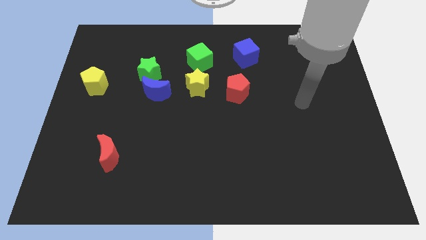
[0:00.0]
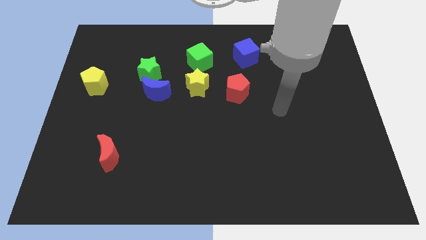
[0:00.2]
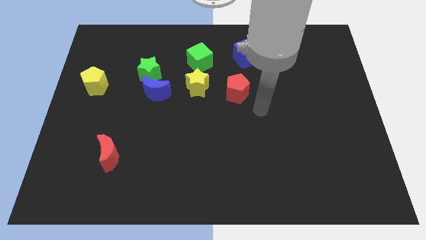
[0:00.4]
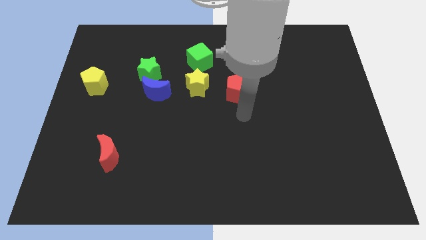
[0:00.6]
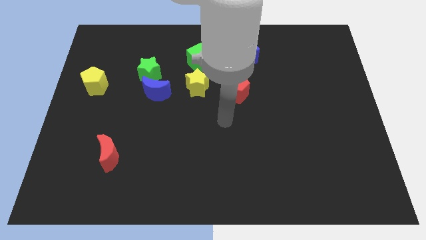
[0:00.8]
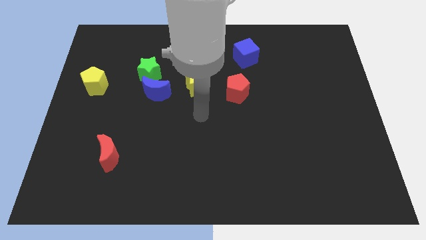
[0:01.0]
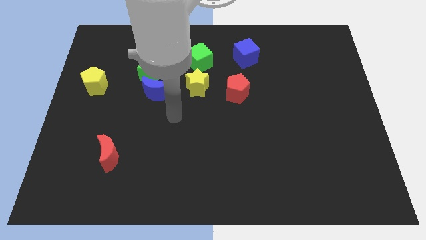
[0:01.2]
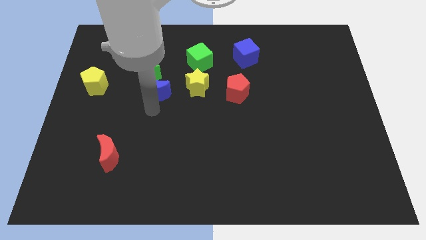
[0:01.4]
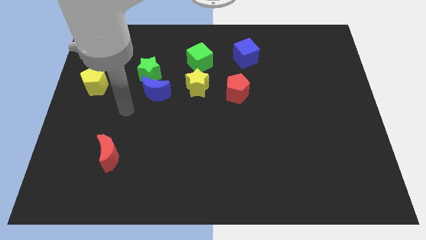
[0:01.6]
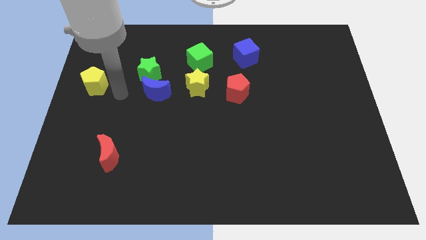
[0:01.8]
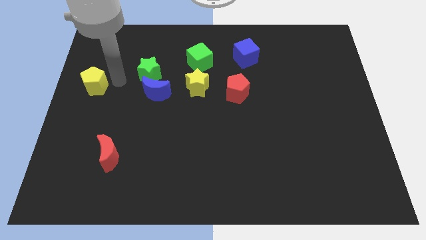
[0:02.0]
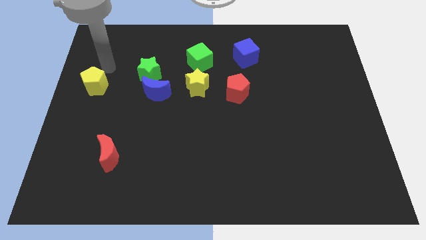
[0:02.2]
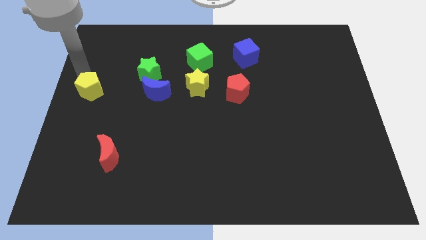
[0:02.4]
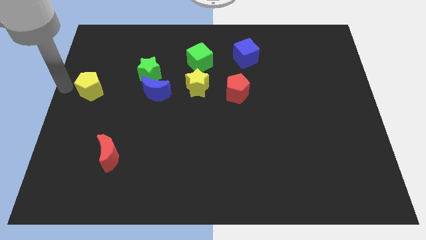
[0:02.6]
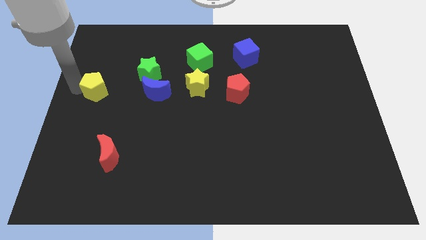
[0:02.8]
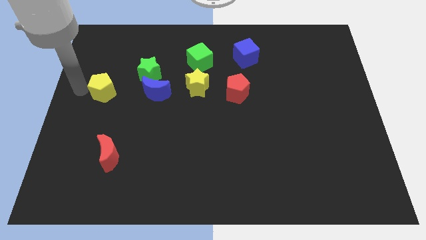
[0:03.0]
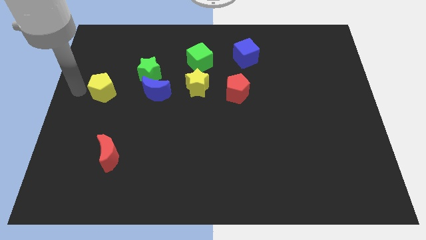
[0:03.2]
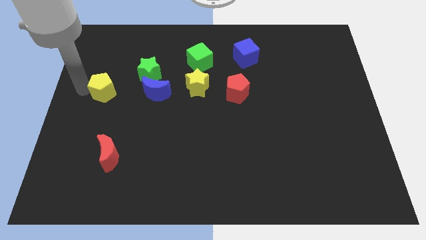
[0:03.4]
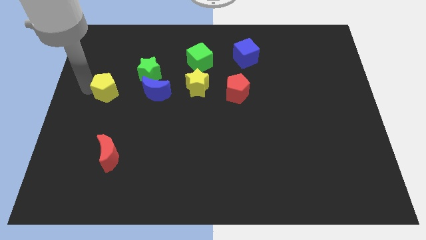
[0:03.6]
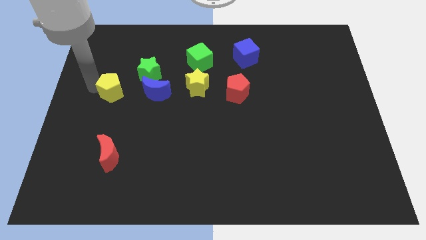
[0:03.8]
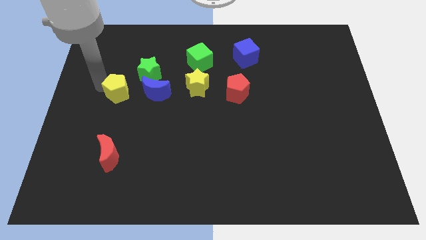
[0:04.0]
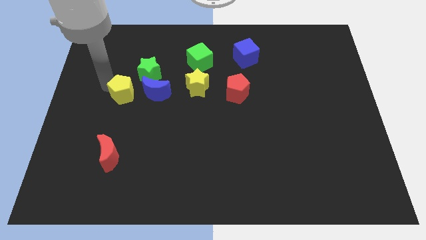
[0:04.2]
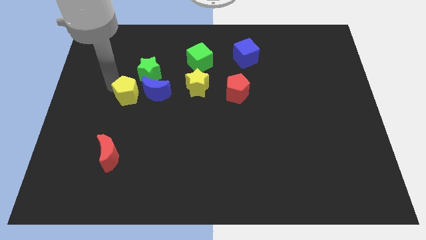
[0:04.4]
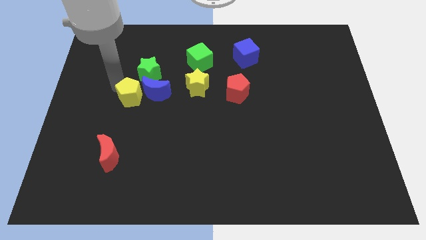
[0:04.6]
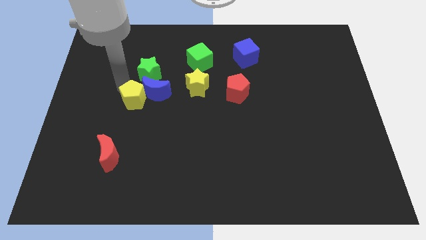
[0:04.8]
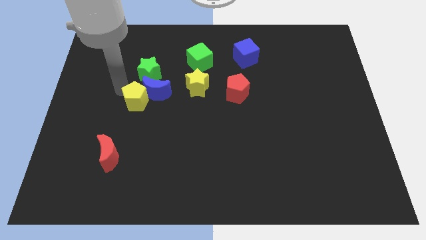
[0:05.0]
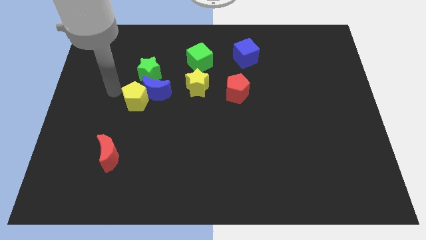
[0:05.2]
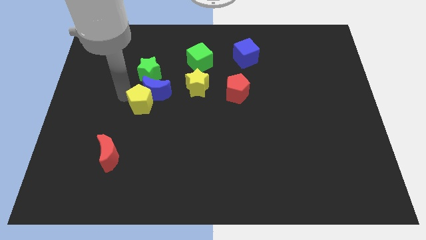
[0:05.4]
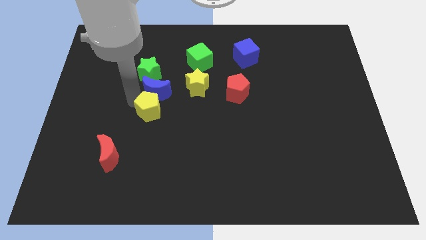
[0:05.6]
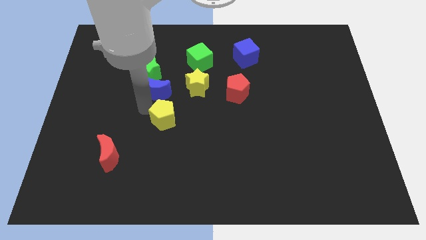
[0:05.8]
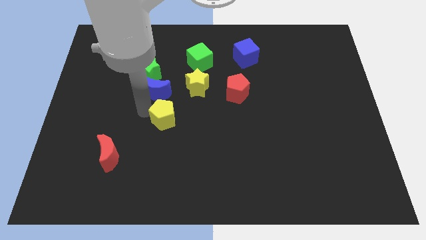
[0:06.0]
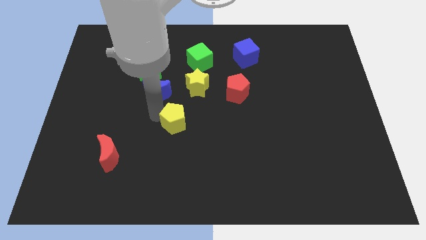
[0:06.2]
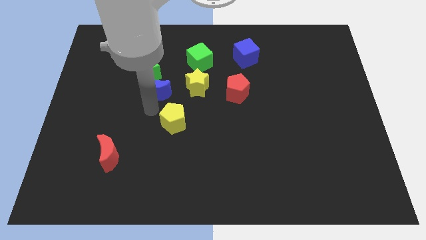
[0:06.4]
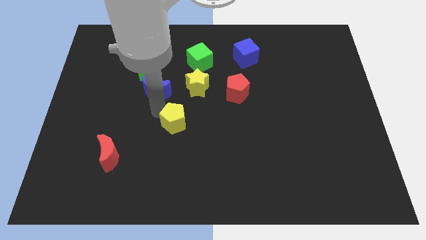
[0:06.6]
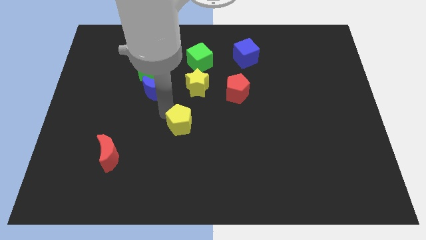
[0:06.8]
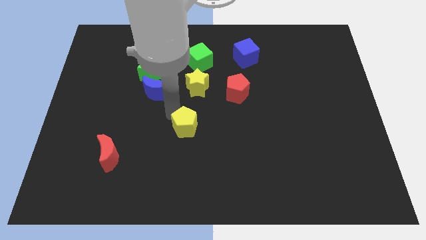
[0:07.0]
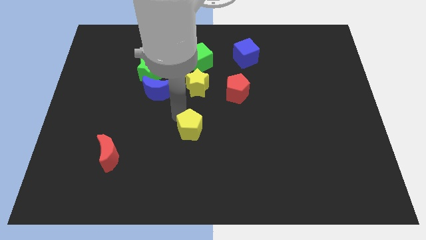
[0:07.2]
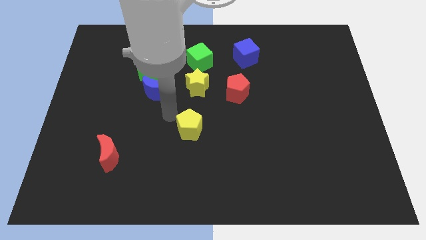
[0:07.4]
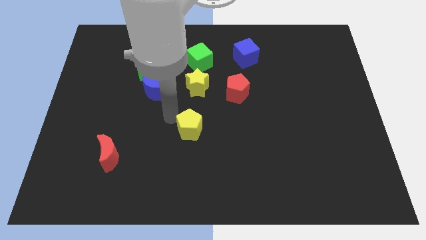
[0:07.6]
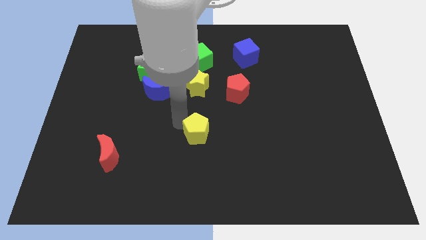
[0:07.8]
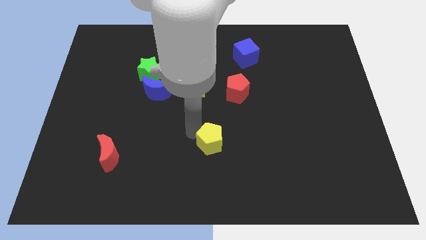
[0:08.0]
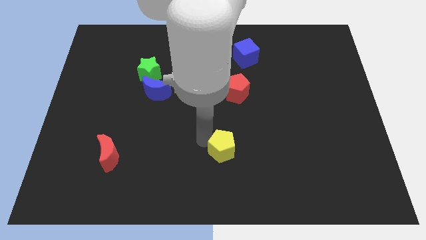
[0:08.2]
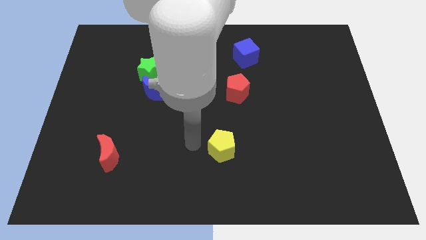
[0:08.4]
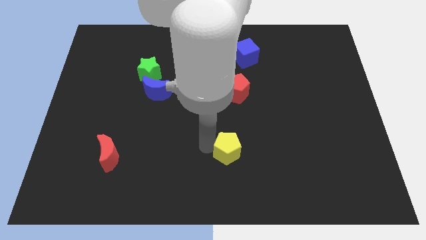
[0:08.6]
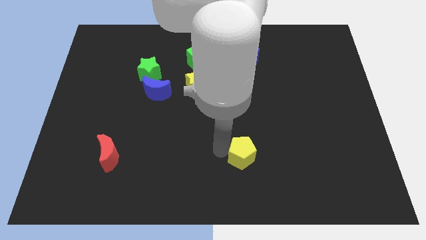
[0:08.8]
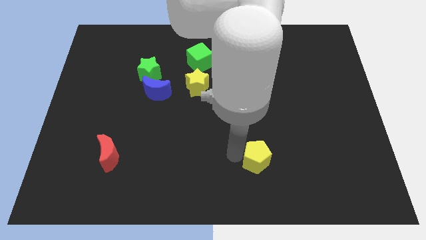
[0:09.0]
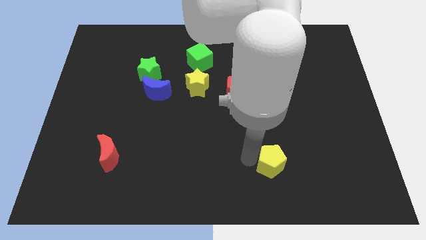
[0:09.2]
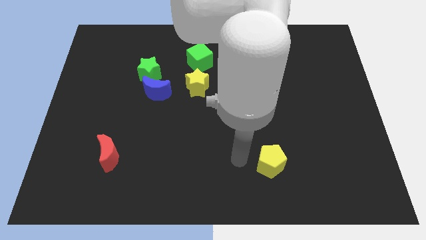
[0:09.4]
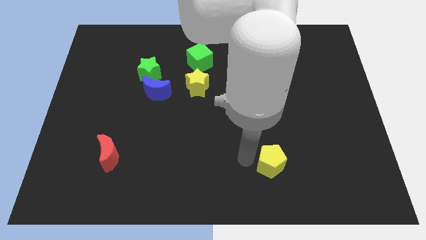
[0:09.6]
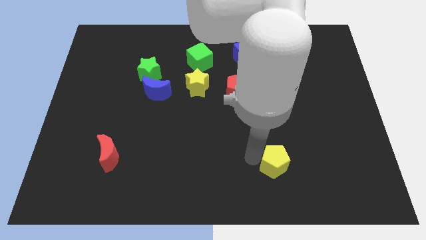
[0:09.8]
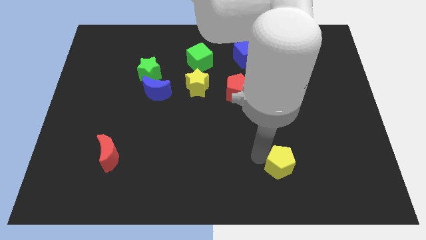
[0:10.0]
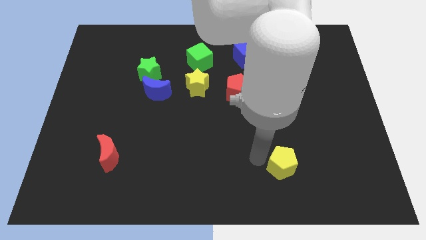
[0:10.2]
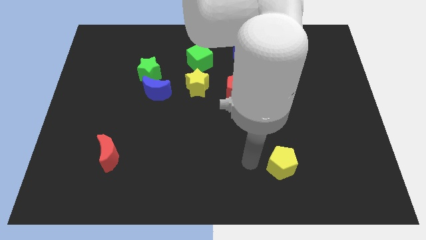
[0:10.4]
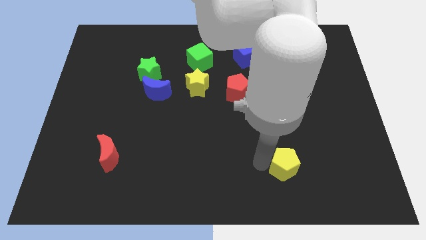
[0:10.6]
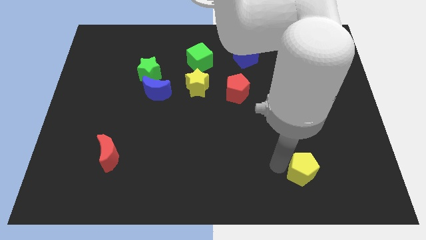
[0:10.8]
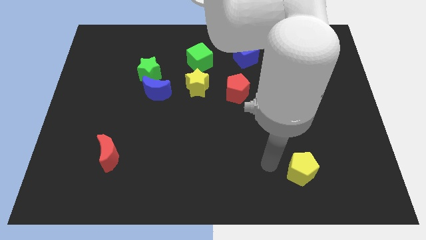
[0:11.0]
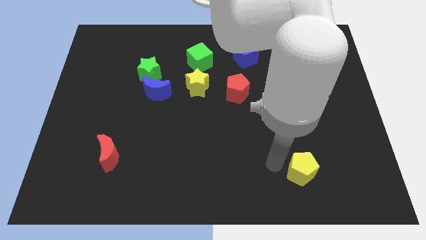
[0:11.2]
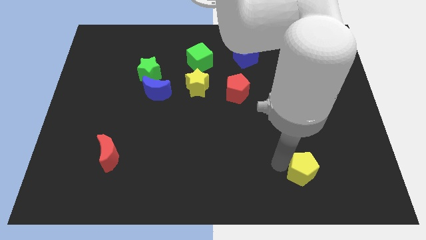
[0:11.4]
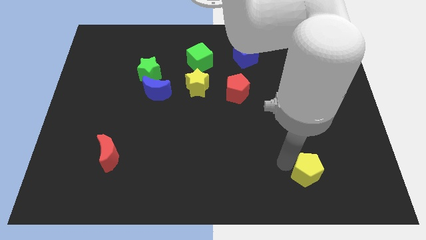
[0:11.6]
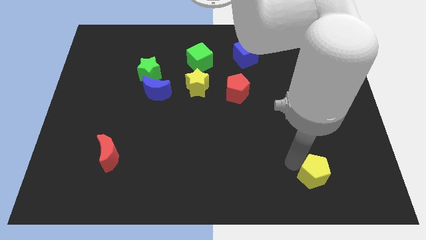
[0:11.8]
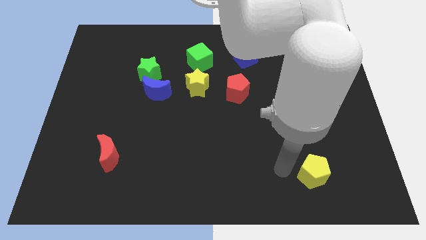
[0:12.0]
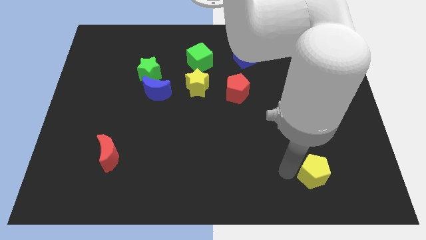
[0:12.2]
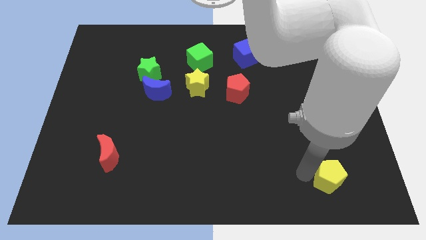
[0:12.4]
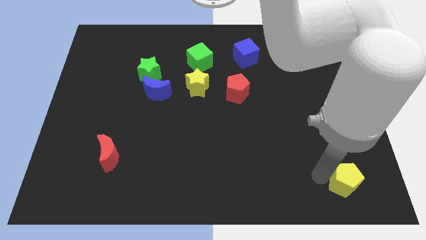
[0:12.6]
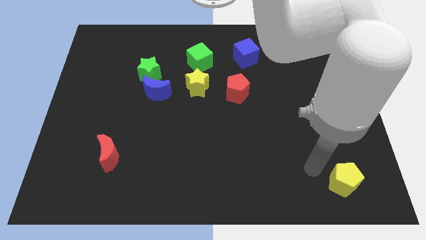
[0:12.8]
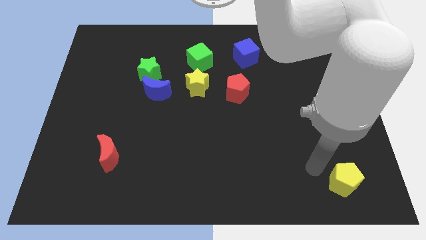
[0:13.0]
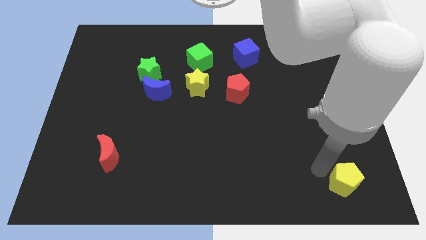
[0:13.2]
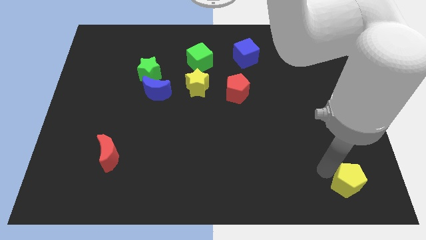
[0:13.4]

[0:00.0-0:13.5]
push the yellow pentagon to the lower right corner
